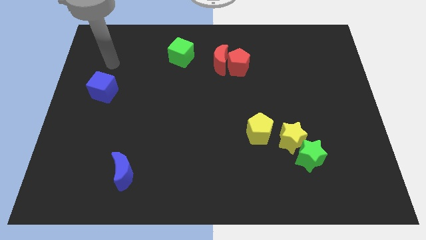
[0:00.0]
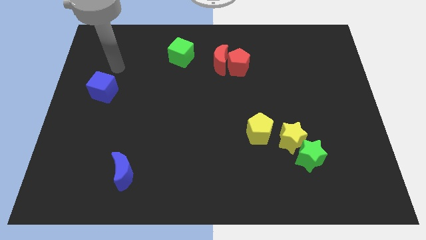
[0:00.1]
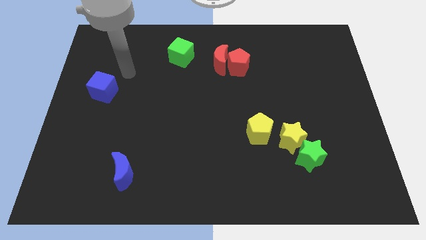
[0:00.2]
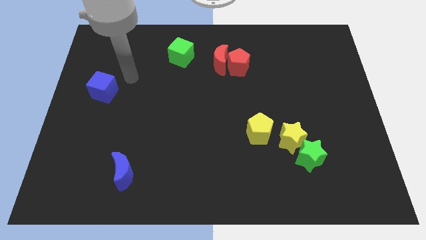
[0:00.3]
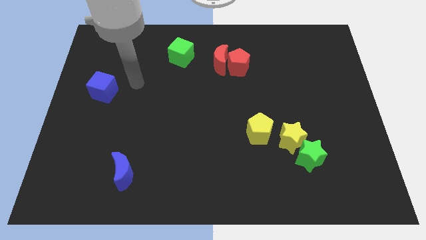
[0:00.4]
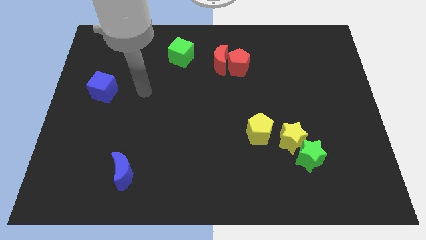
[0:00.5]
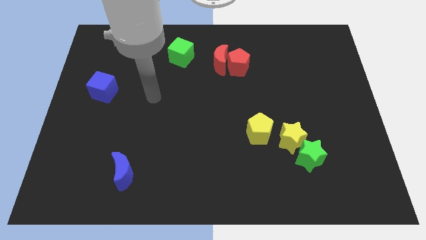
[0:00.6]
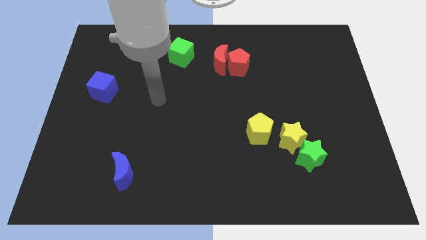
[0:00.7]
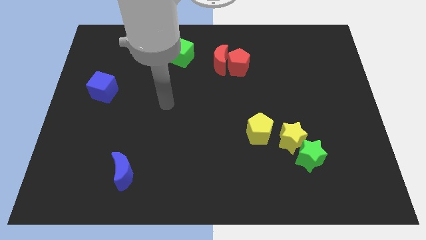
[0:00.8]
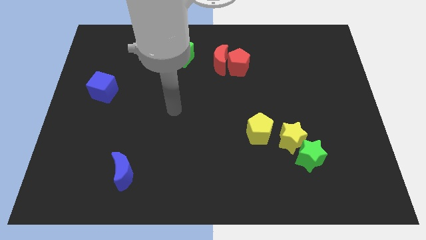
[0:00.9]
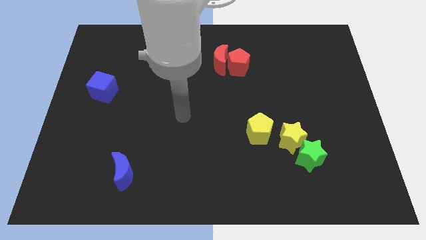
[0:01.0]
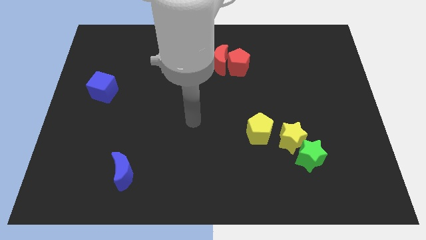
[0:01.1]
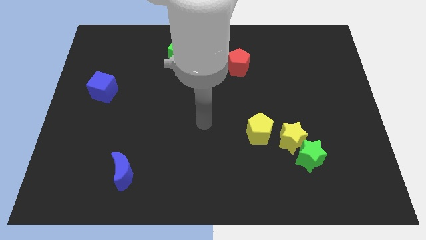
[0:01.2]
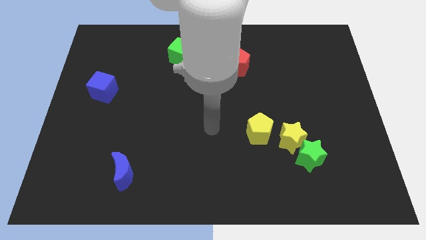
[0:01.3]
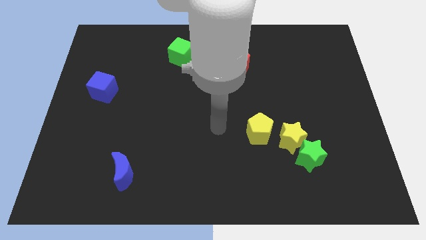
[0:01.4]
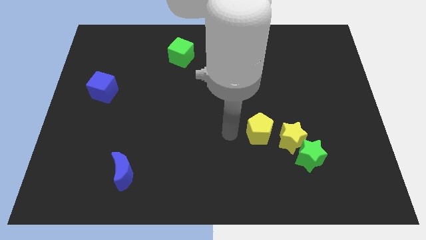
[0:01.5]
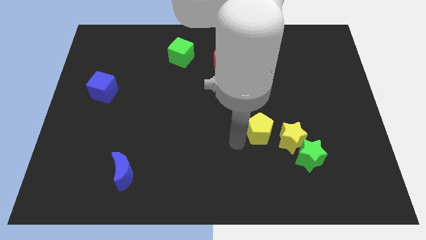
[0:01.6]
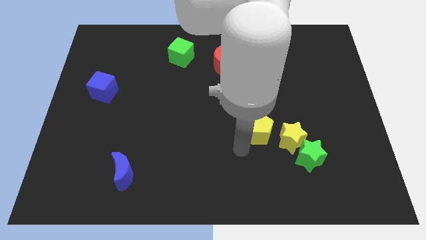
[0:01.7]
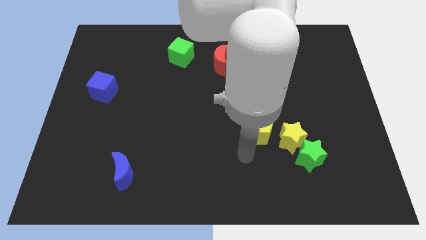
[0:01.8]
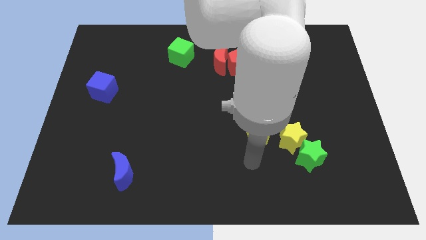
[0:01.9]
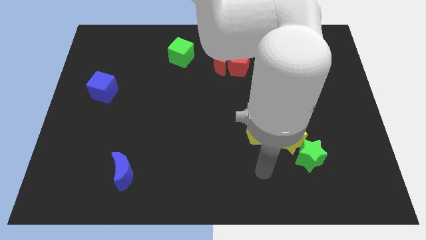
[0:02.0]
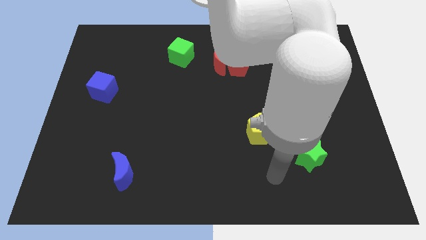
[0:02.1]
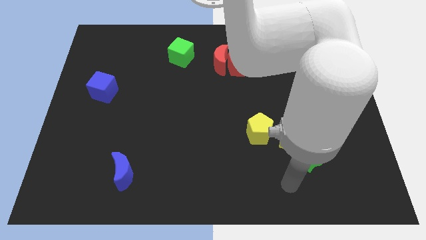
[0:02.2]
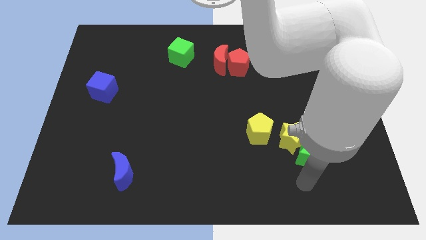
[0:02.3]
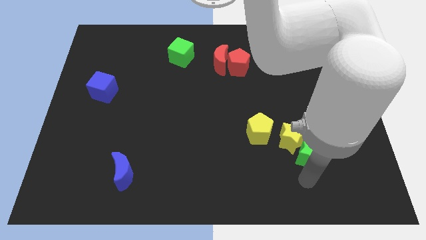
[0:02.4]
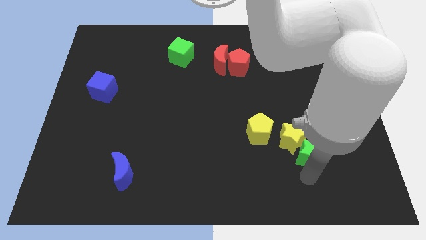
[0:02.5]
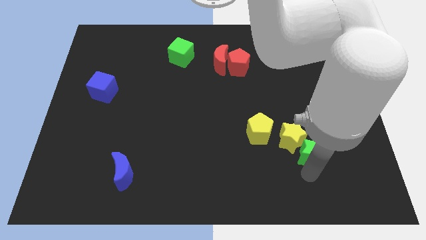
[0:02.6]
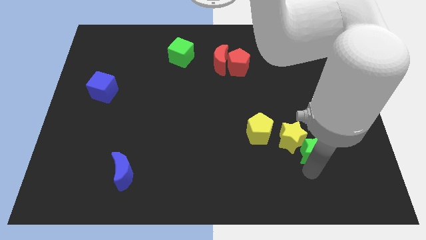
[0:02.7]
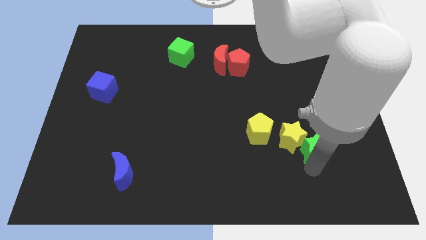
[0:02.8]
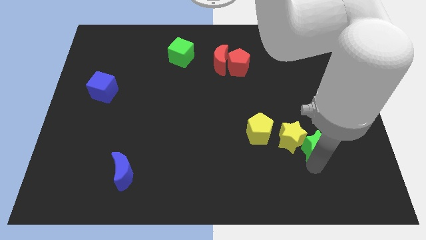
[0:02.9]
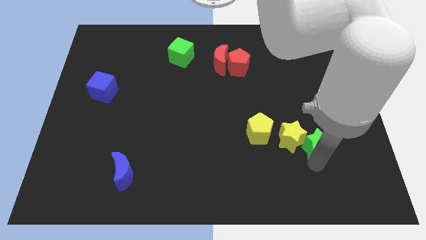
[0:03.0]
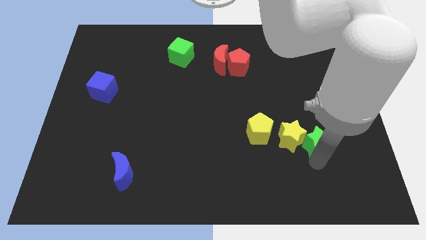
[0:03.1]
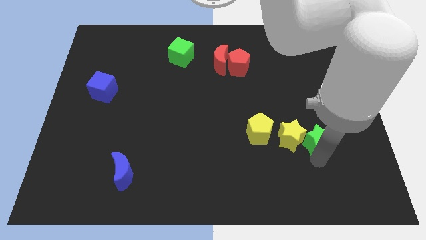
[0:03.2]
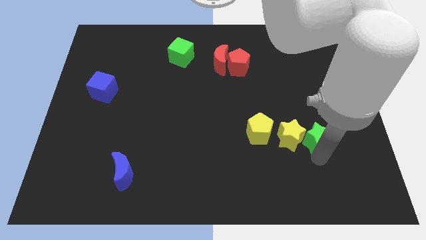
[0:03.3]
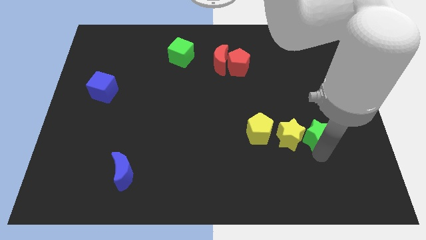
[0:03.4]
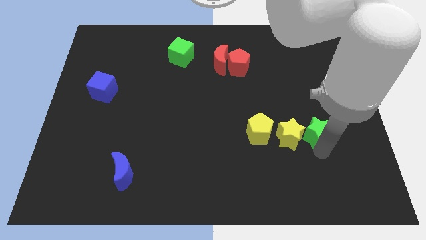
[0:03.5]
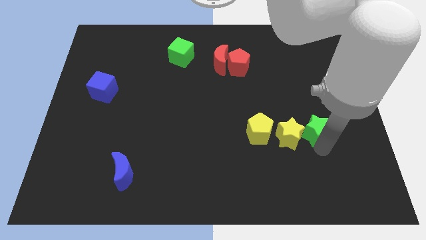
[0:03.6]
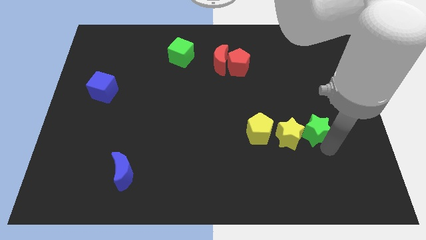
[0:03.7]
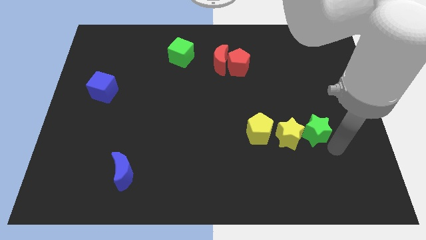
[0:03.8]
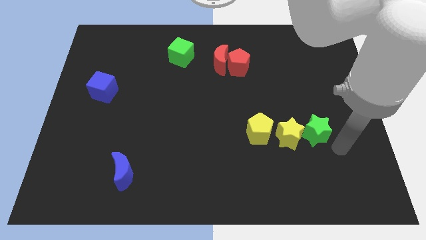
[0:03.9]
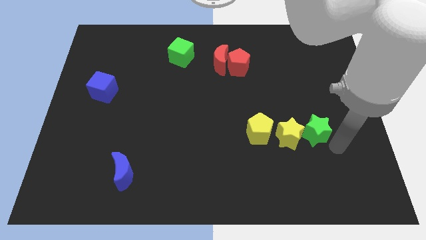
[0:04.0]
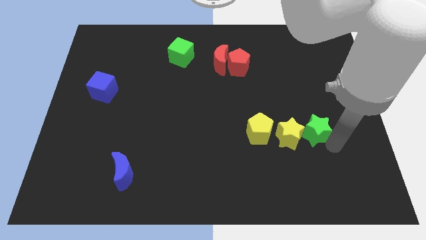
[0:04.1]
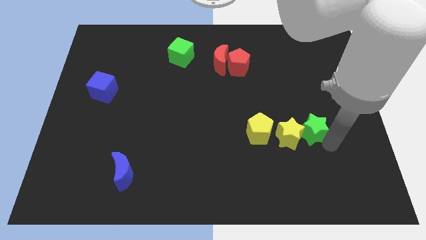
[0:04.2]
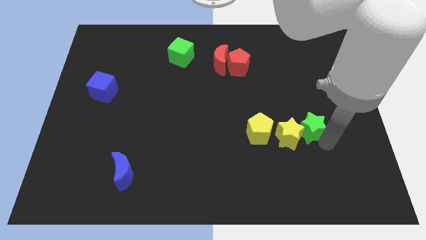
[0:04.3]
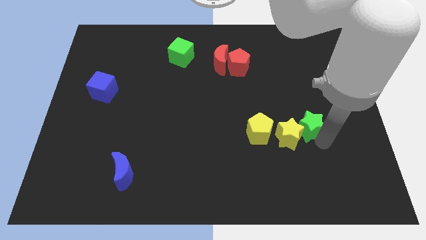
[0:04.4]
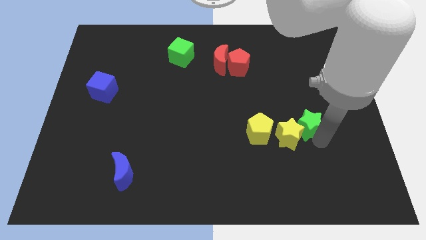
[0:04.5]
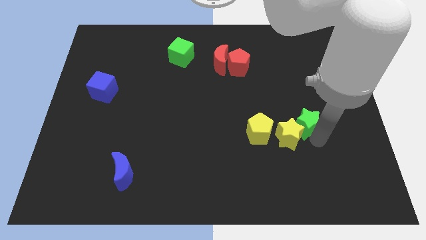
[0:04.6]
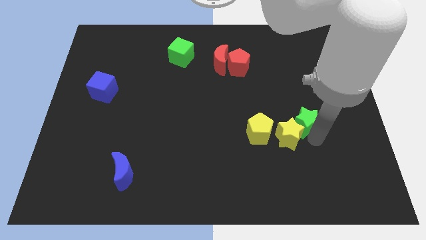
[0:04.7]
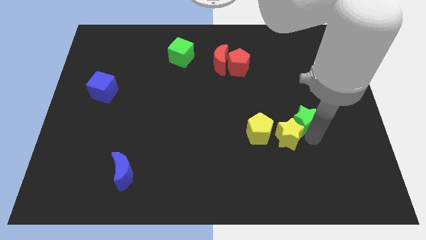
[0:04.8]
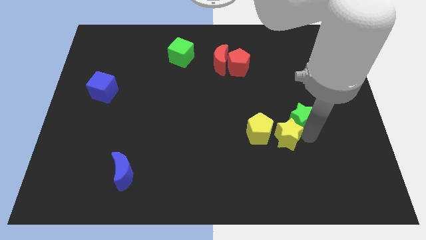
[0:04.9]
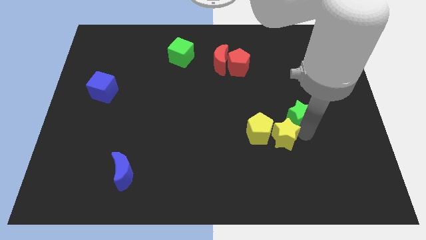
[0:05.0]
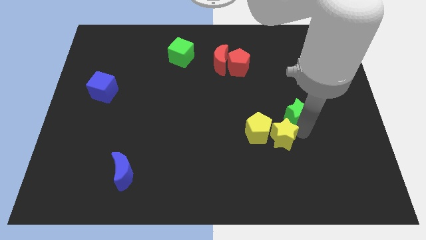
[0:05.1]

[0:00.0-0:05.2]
push the green star up and to the left a little bit

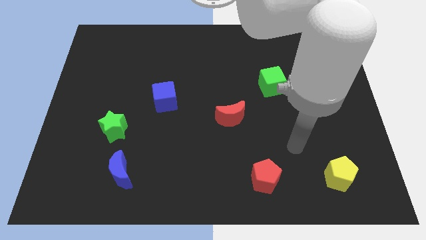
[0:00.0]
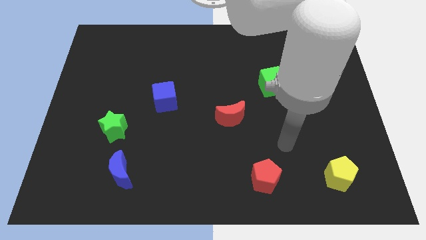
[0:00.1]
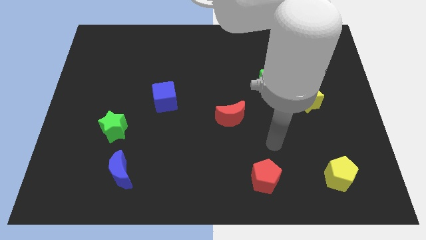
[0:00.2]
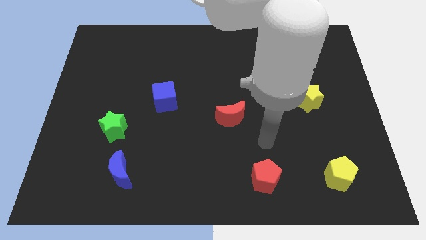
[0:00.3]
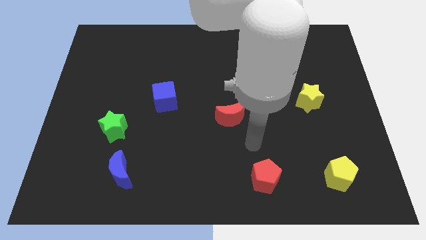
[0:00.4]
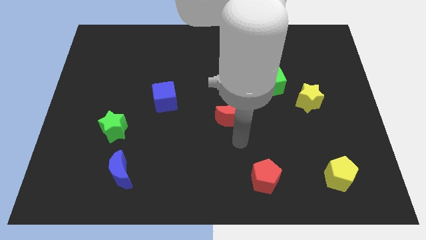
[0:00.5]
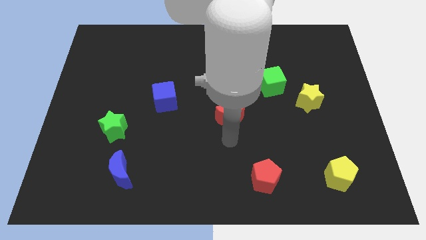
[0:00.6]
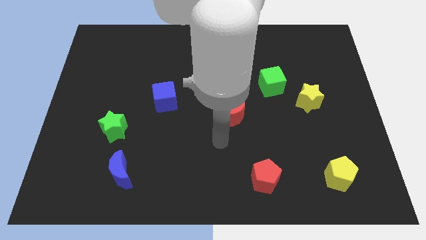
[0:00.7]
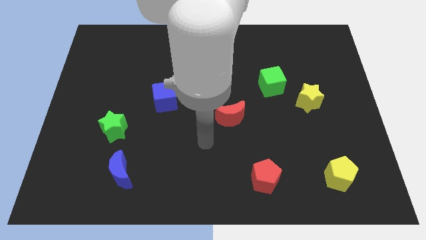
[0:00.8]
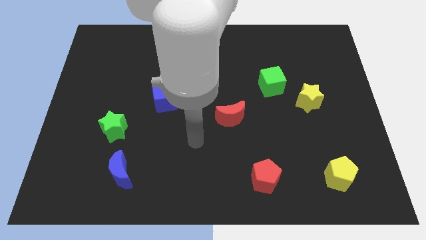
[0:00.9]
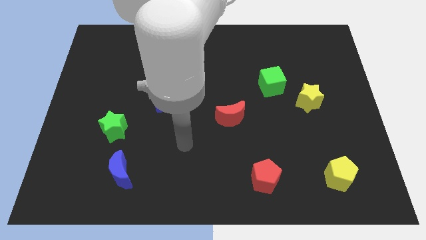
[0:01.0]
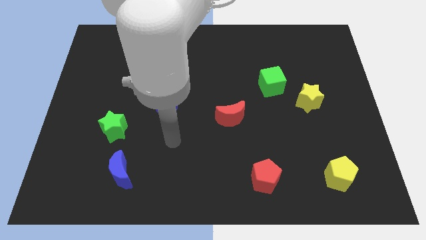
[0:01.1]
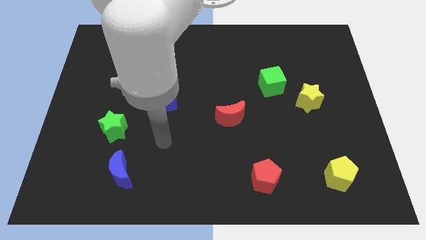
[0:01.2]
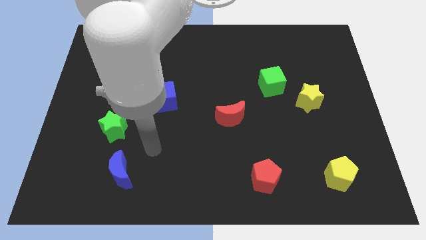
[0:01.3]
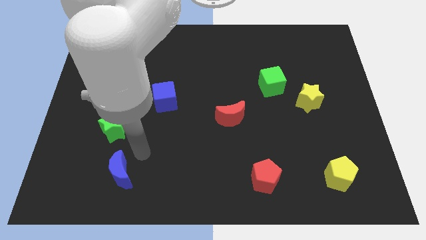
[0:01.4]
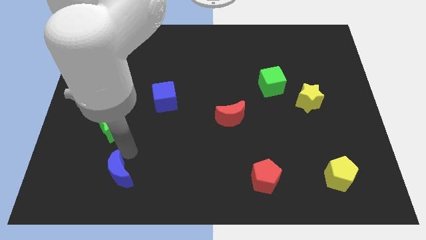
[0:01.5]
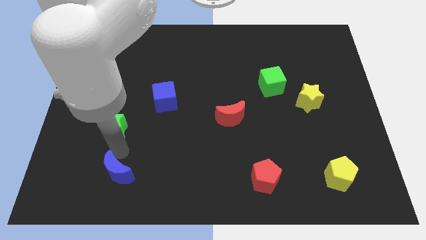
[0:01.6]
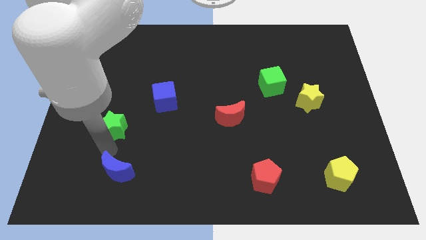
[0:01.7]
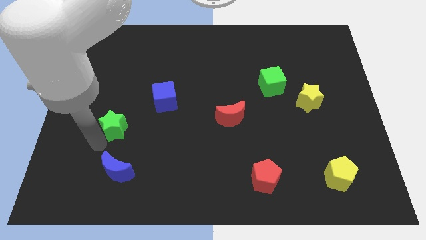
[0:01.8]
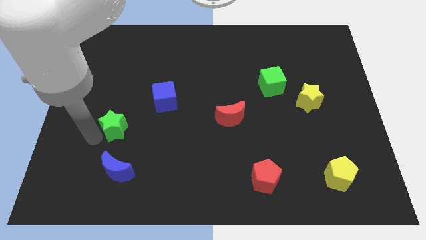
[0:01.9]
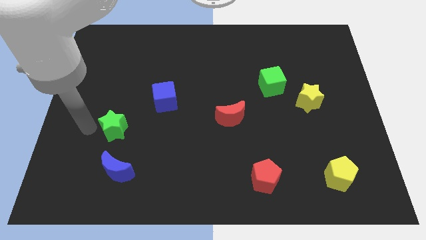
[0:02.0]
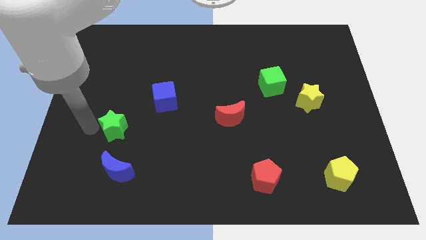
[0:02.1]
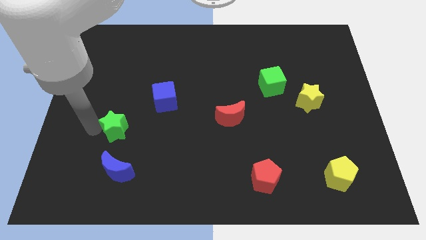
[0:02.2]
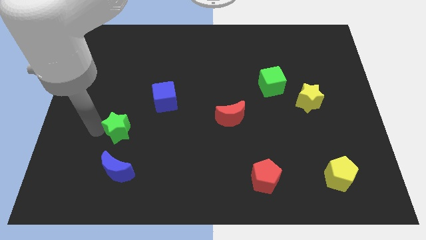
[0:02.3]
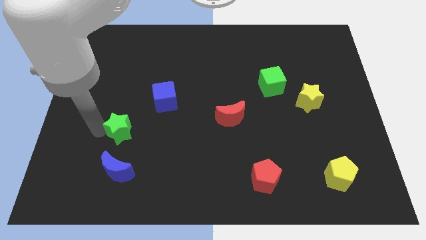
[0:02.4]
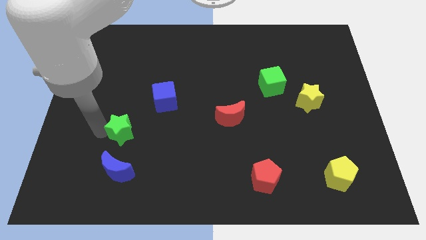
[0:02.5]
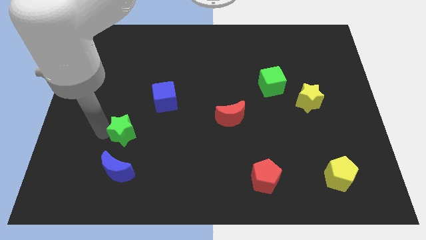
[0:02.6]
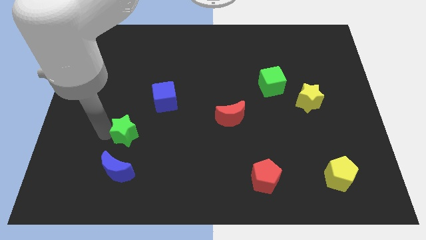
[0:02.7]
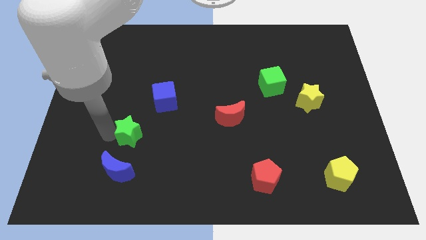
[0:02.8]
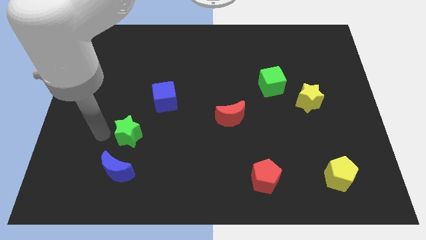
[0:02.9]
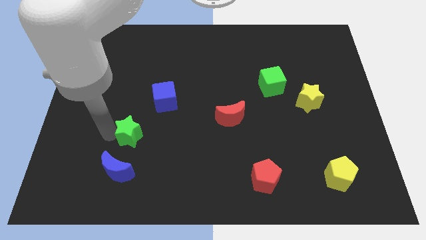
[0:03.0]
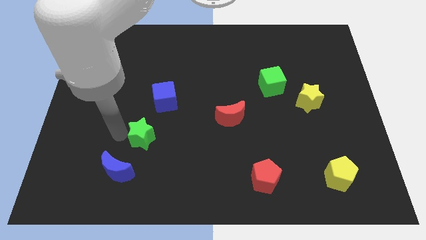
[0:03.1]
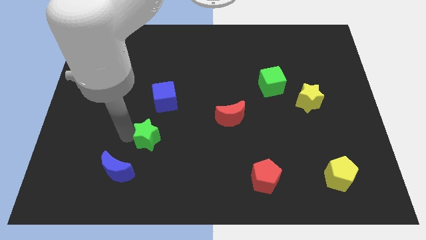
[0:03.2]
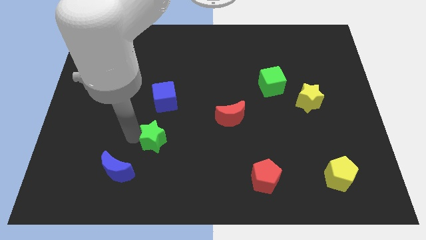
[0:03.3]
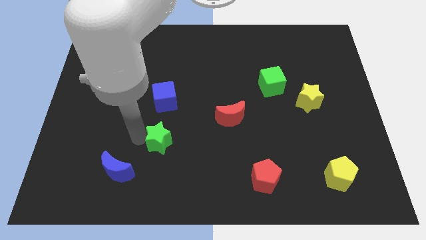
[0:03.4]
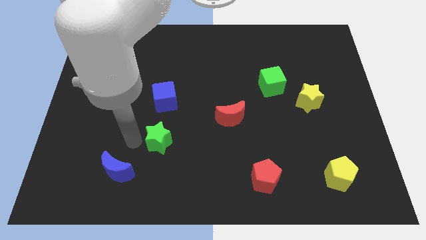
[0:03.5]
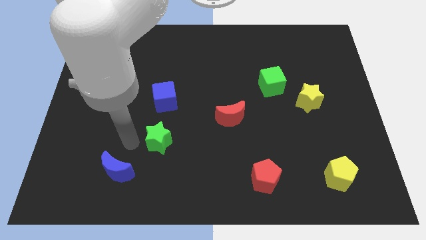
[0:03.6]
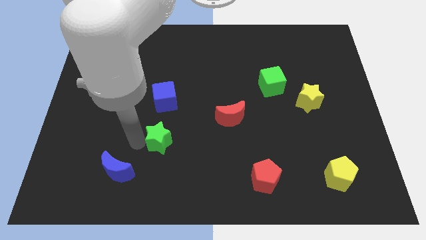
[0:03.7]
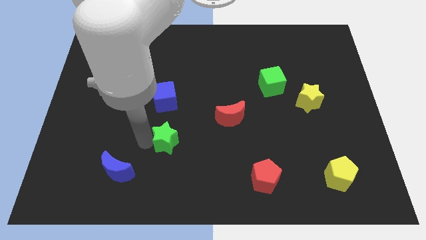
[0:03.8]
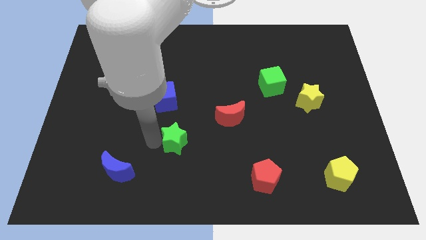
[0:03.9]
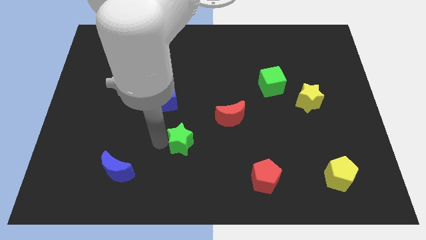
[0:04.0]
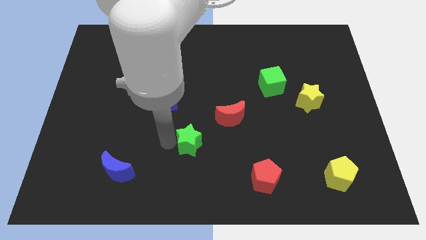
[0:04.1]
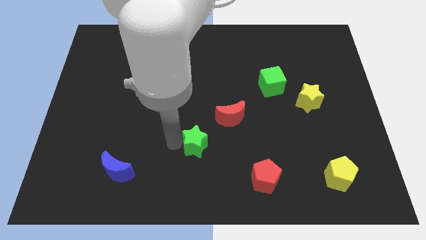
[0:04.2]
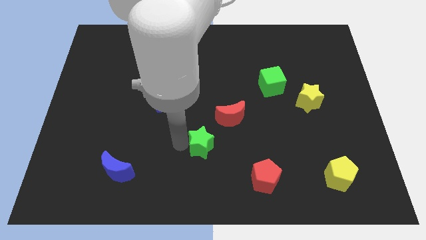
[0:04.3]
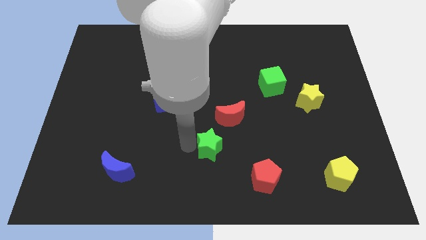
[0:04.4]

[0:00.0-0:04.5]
push the green star to the right
